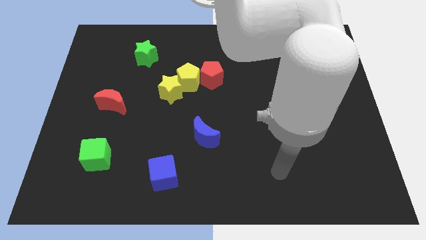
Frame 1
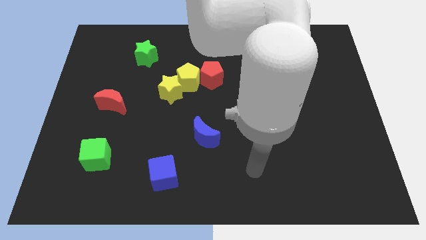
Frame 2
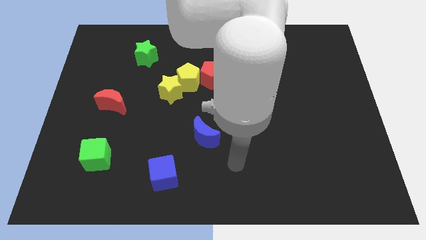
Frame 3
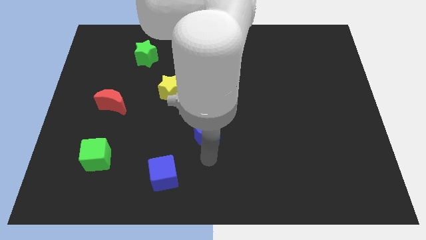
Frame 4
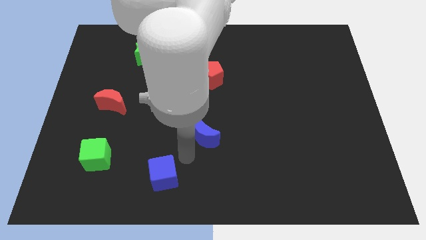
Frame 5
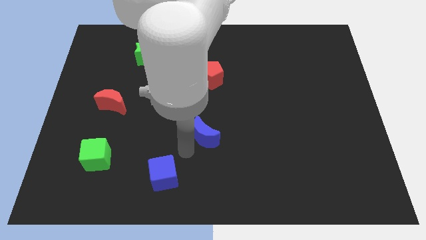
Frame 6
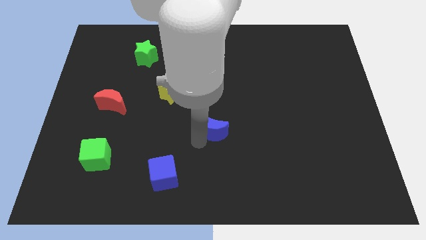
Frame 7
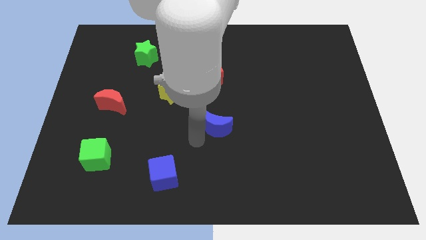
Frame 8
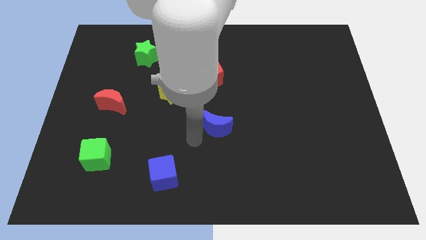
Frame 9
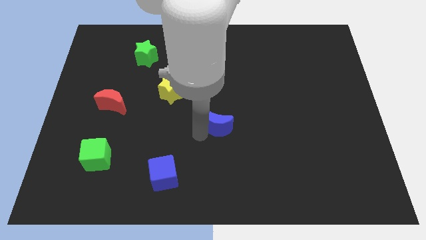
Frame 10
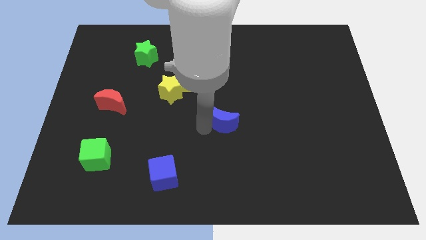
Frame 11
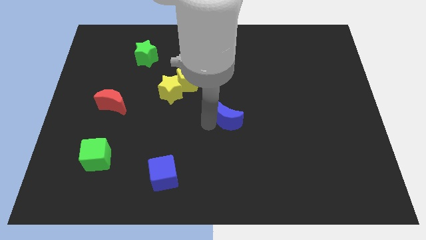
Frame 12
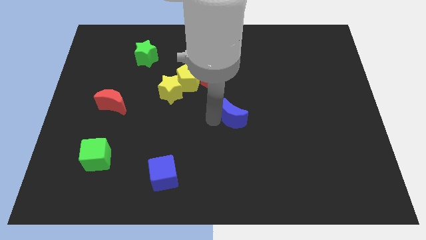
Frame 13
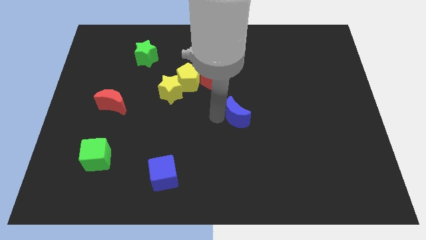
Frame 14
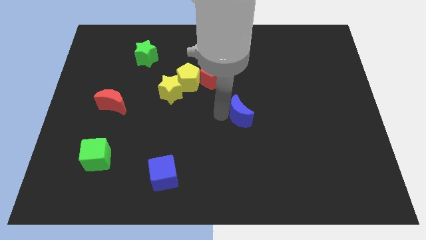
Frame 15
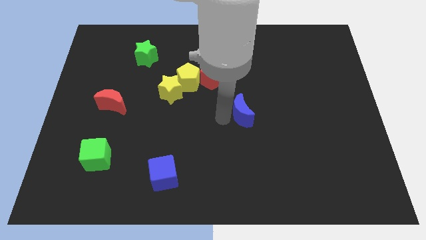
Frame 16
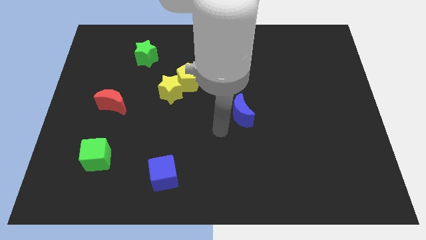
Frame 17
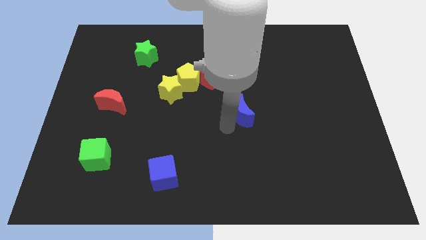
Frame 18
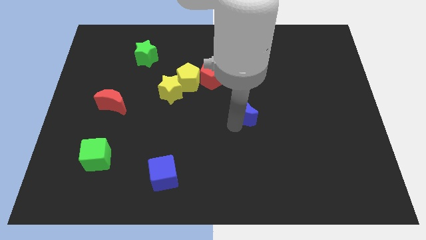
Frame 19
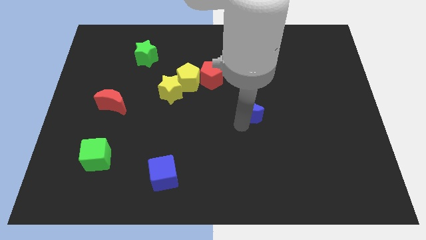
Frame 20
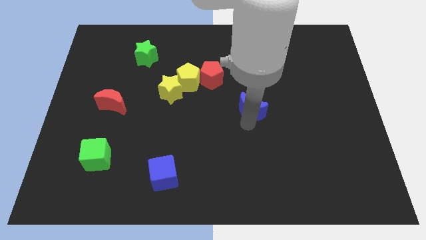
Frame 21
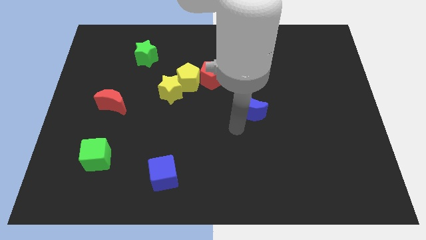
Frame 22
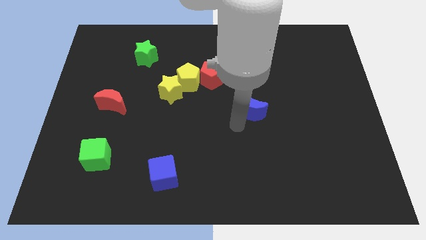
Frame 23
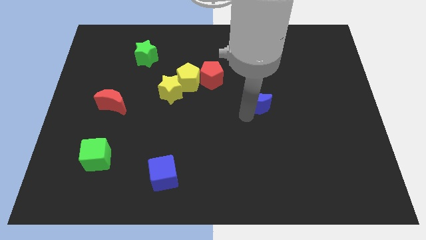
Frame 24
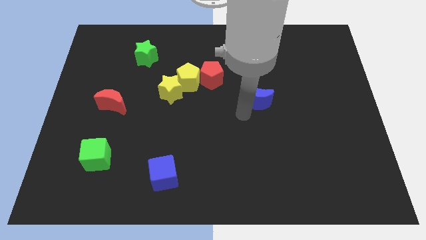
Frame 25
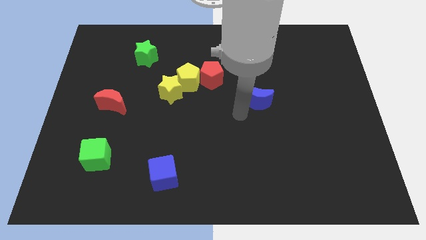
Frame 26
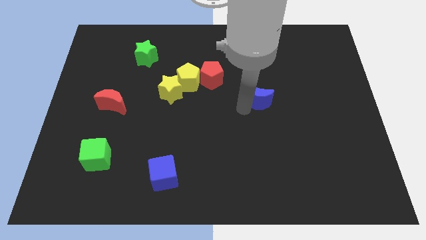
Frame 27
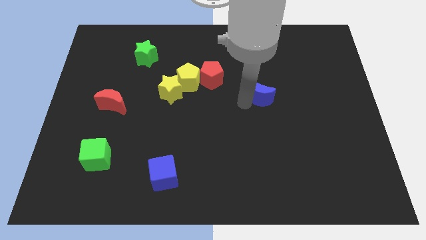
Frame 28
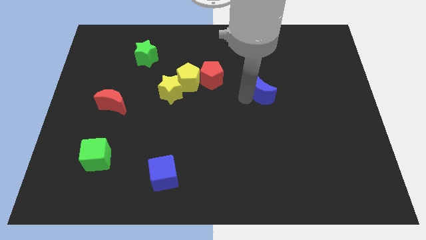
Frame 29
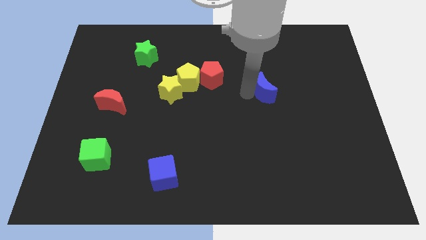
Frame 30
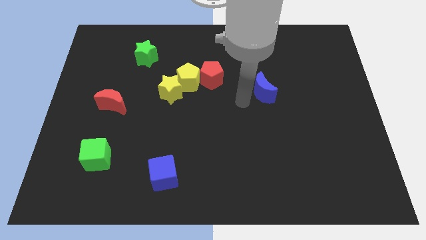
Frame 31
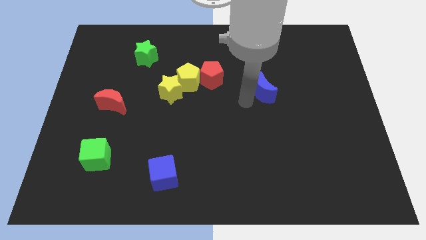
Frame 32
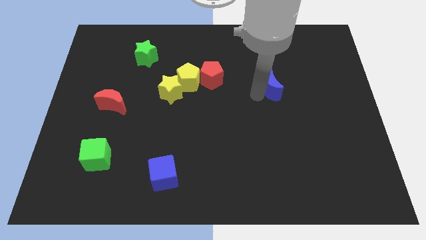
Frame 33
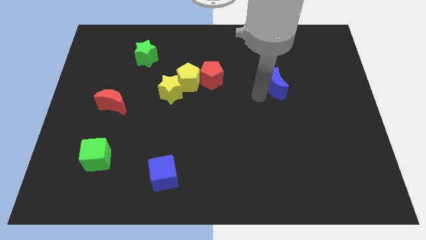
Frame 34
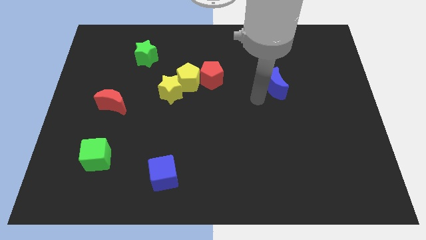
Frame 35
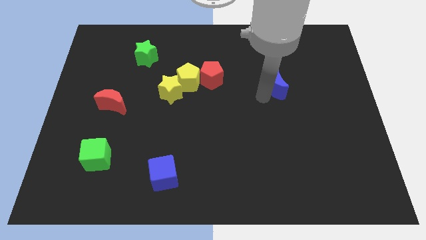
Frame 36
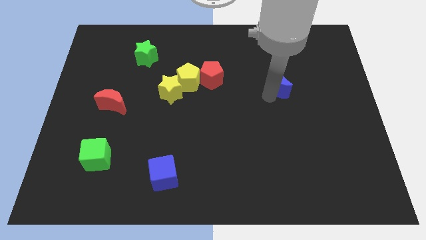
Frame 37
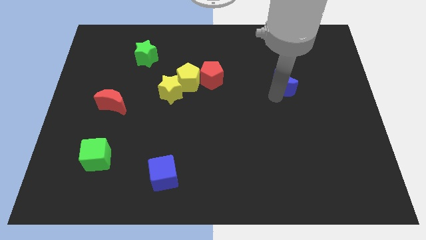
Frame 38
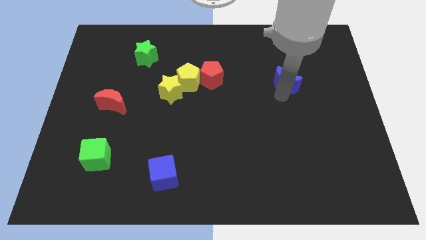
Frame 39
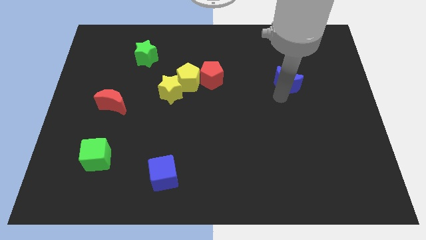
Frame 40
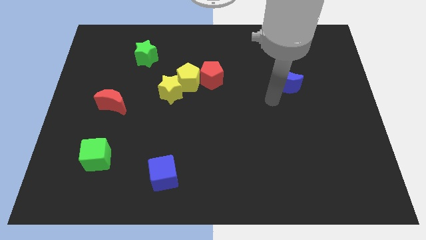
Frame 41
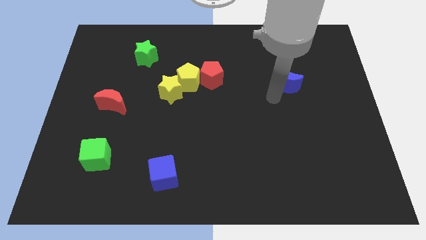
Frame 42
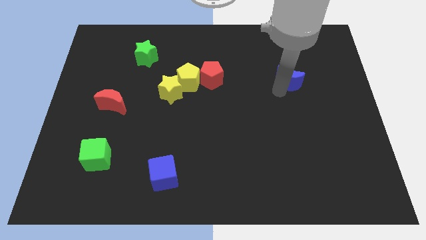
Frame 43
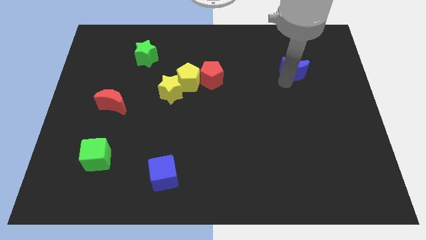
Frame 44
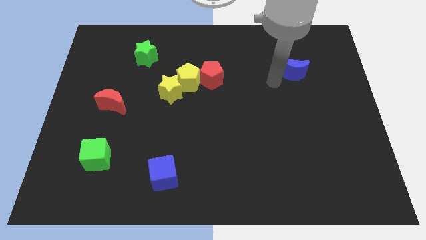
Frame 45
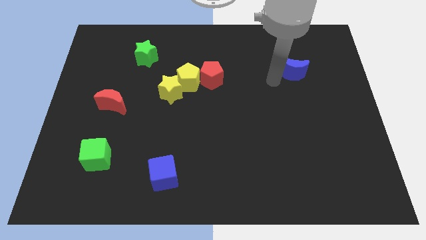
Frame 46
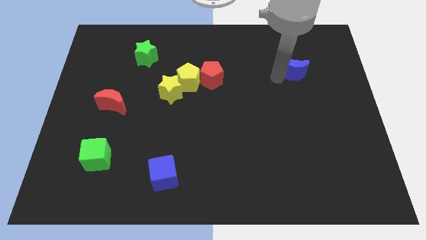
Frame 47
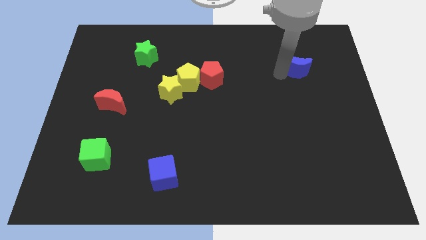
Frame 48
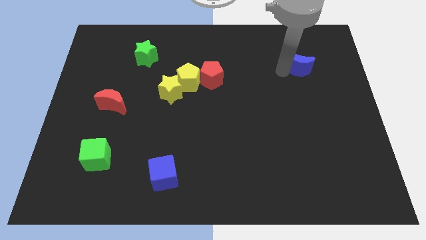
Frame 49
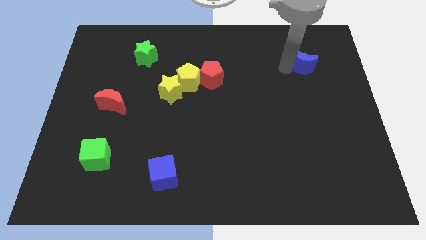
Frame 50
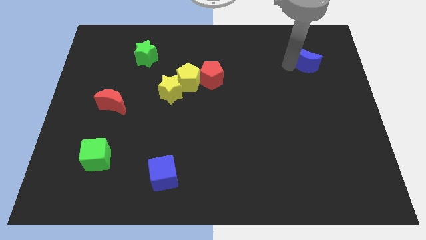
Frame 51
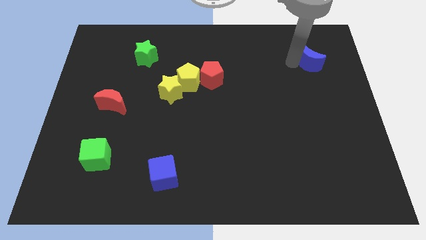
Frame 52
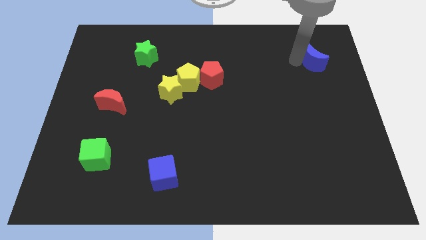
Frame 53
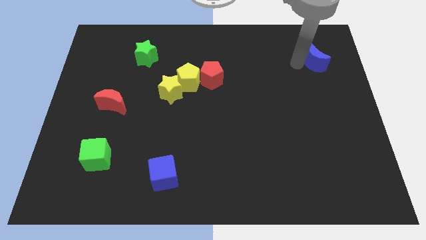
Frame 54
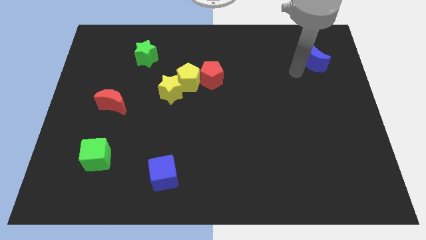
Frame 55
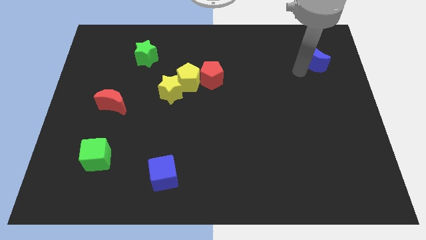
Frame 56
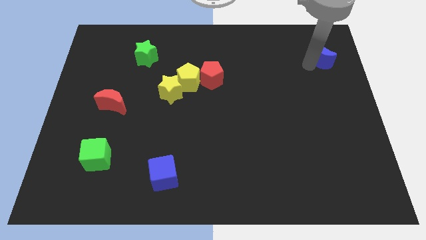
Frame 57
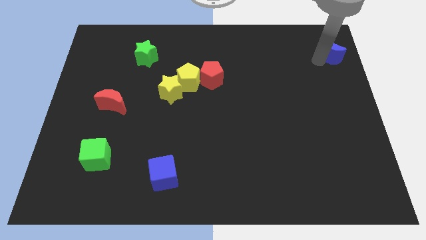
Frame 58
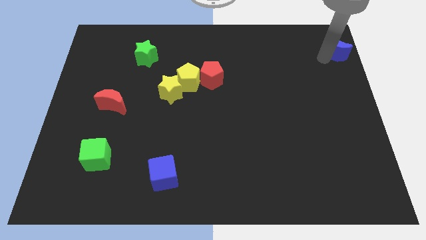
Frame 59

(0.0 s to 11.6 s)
push the blue moon to the top right corner
